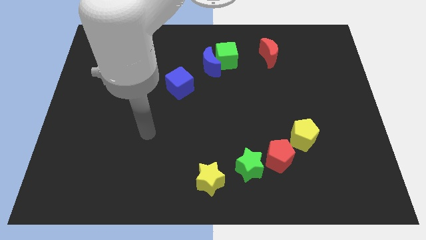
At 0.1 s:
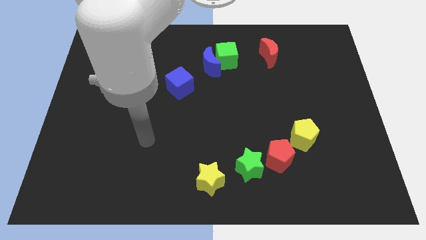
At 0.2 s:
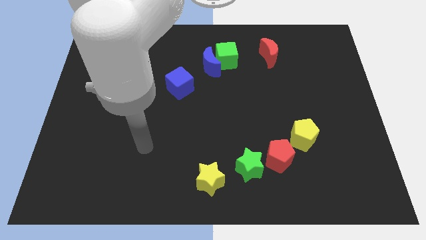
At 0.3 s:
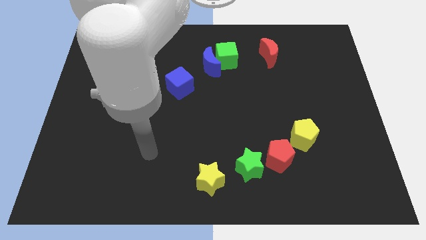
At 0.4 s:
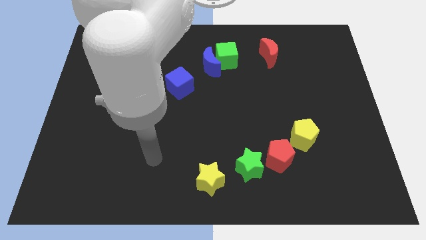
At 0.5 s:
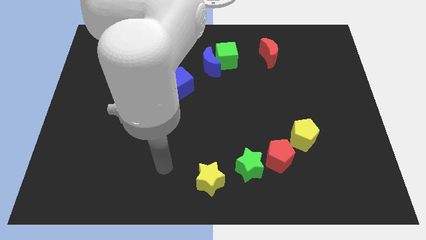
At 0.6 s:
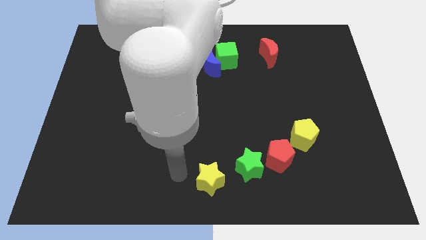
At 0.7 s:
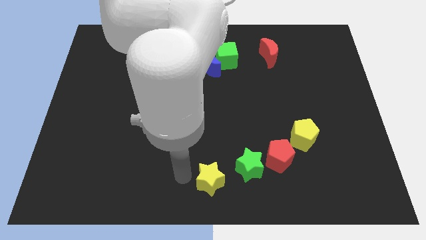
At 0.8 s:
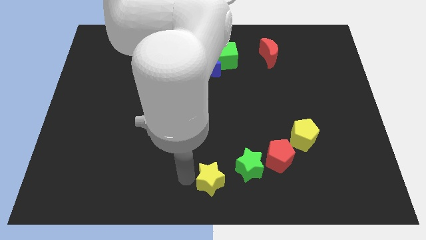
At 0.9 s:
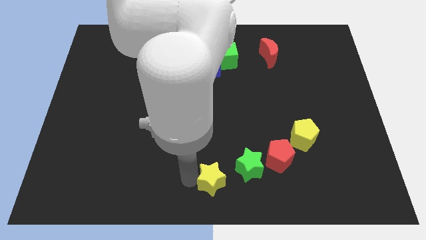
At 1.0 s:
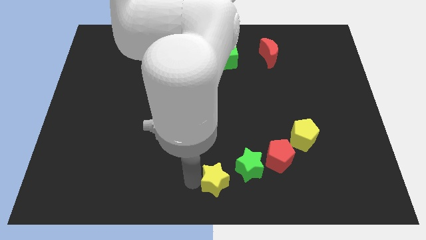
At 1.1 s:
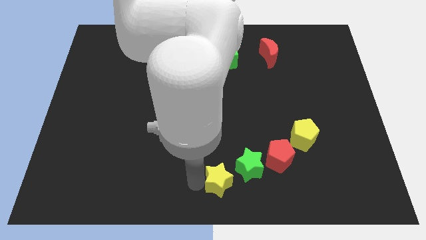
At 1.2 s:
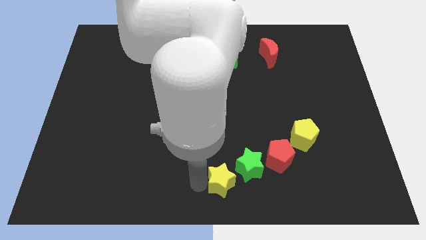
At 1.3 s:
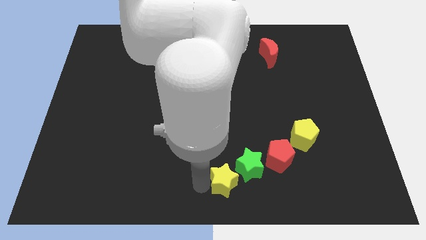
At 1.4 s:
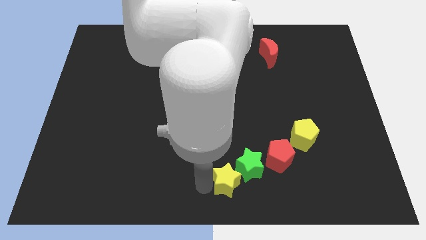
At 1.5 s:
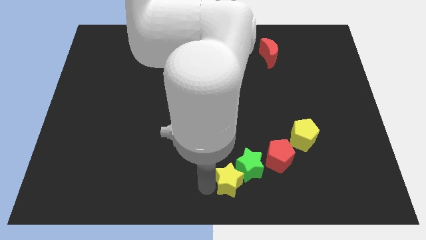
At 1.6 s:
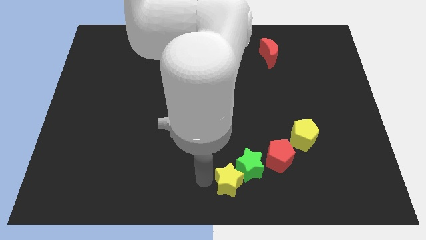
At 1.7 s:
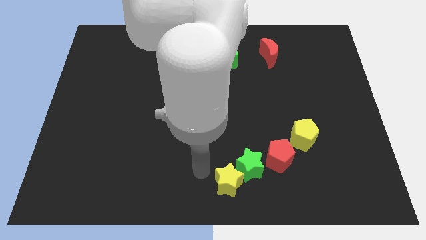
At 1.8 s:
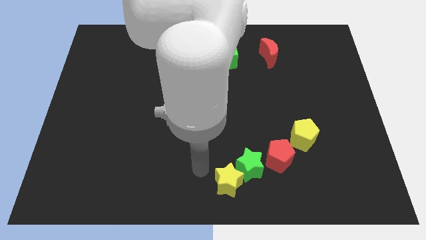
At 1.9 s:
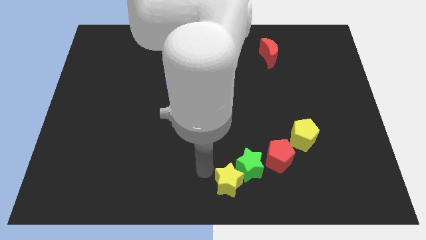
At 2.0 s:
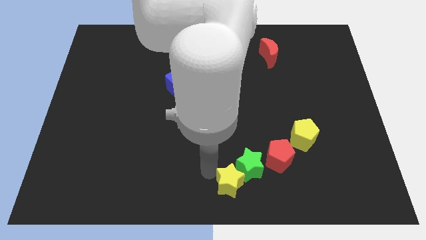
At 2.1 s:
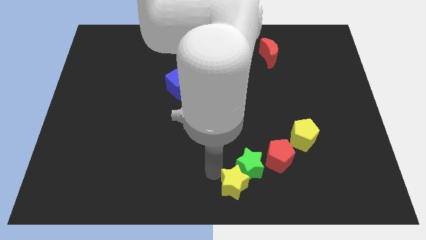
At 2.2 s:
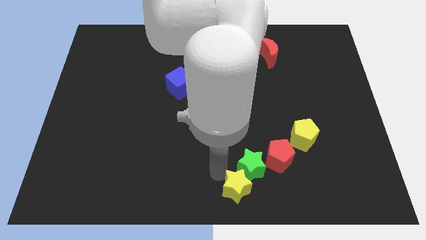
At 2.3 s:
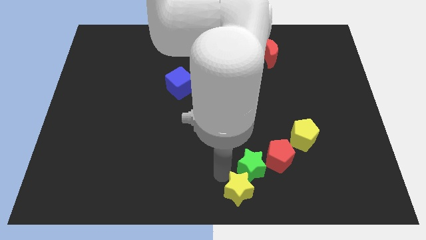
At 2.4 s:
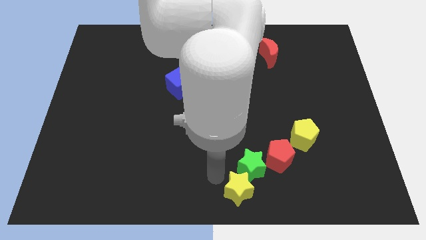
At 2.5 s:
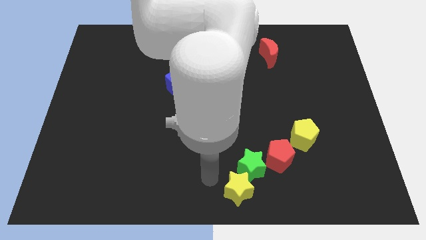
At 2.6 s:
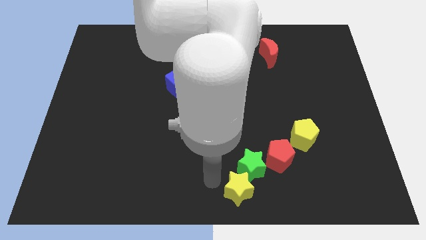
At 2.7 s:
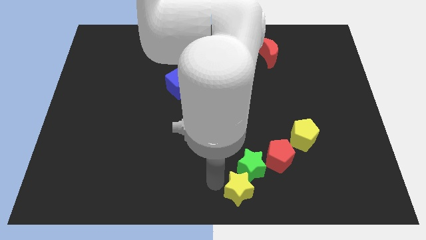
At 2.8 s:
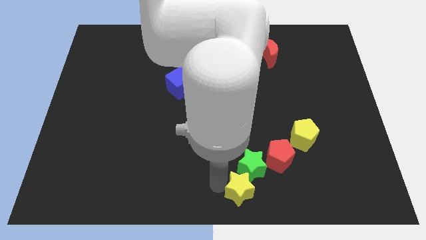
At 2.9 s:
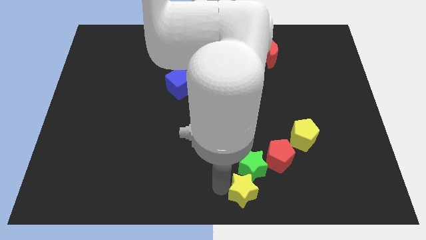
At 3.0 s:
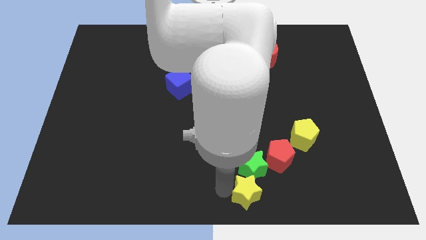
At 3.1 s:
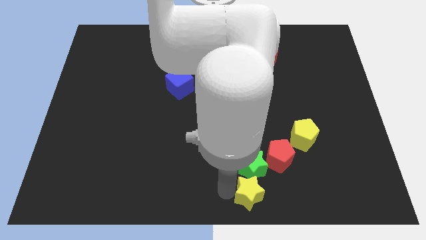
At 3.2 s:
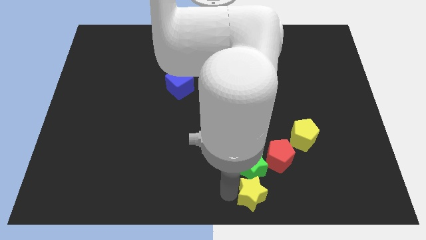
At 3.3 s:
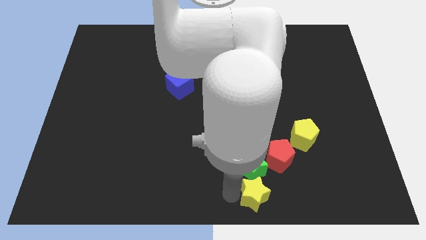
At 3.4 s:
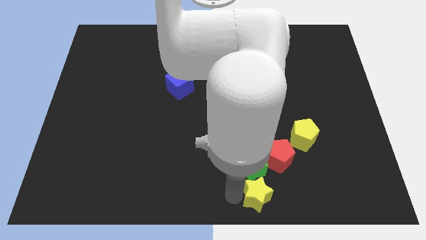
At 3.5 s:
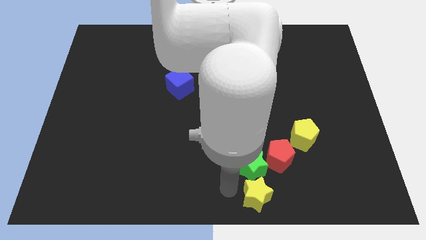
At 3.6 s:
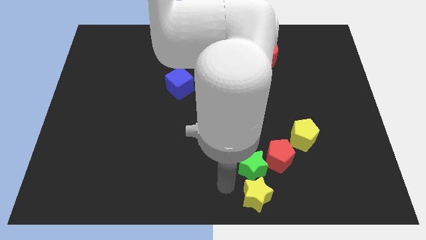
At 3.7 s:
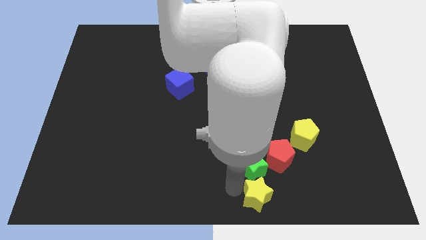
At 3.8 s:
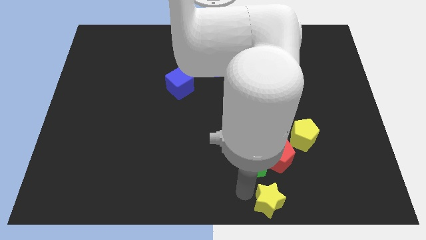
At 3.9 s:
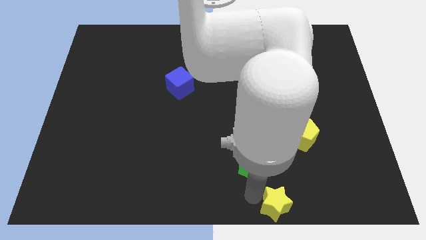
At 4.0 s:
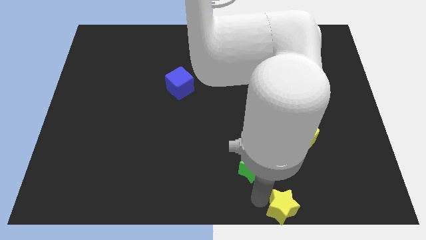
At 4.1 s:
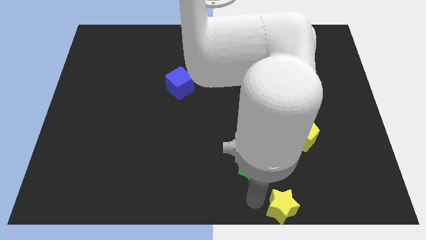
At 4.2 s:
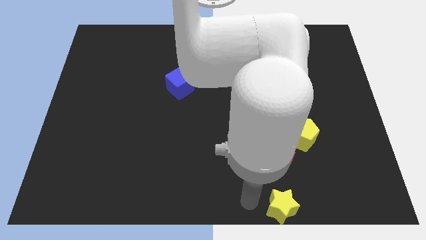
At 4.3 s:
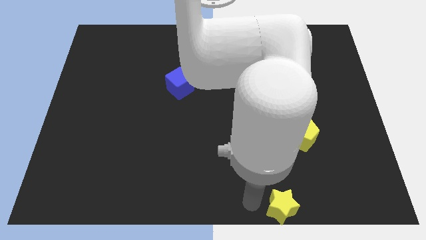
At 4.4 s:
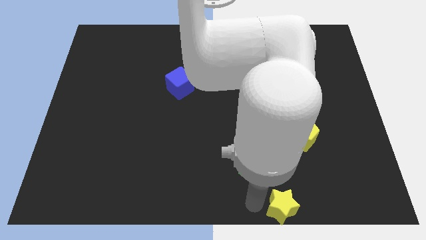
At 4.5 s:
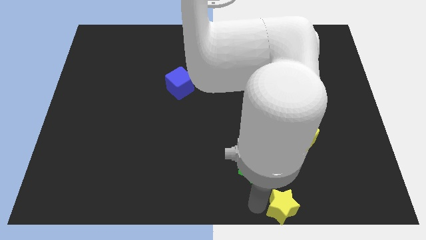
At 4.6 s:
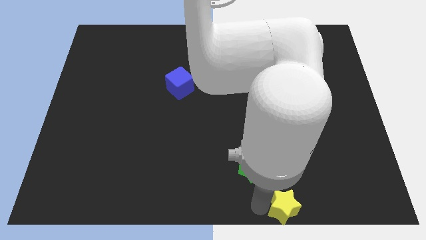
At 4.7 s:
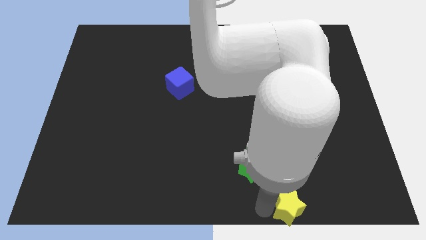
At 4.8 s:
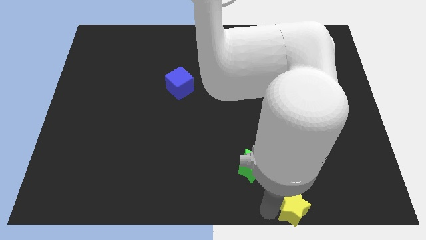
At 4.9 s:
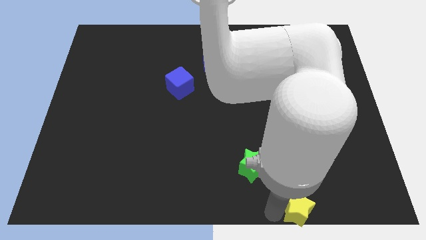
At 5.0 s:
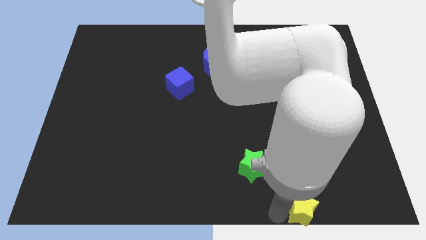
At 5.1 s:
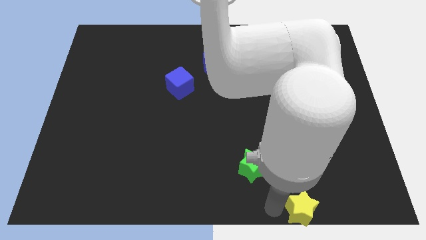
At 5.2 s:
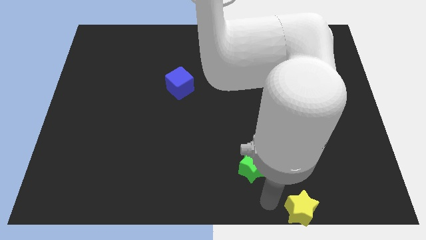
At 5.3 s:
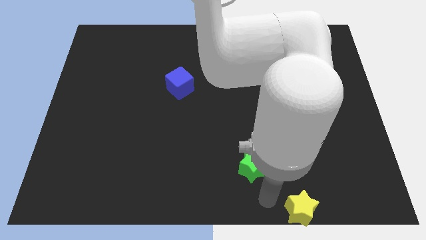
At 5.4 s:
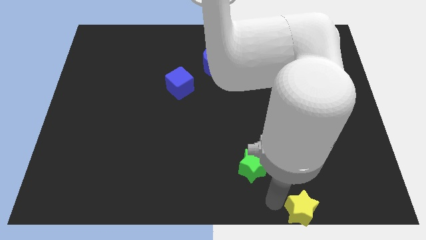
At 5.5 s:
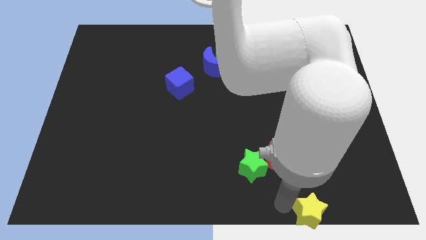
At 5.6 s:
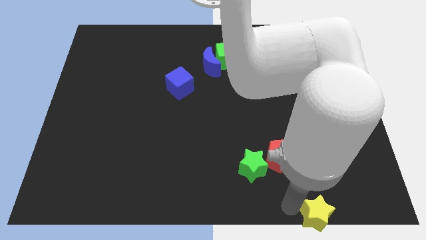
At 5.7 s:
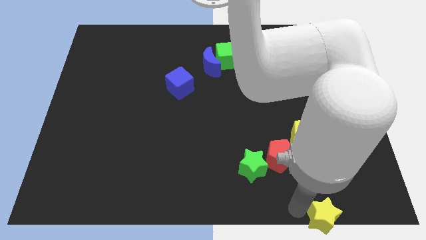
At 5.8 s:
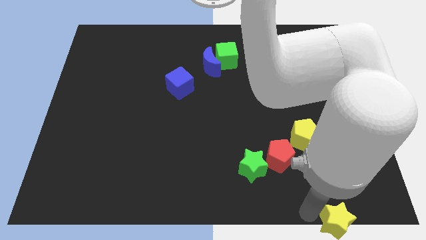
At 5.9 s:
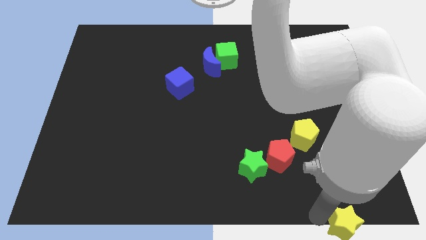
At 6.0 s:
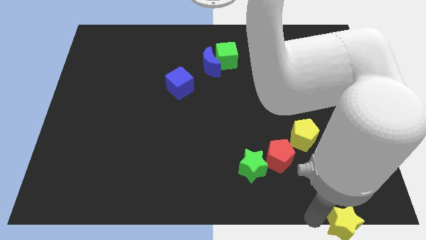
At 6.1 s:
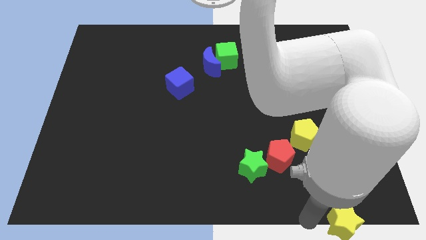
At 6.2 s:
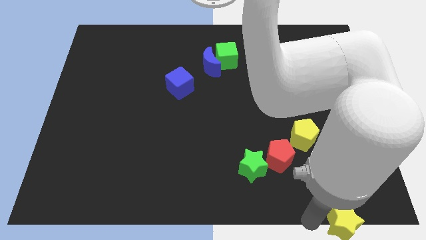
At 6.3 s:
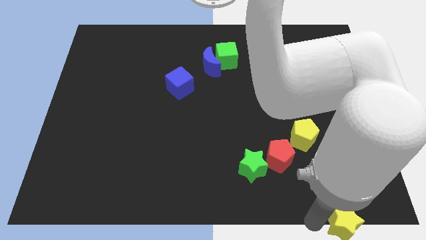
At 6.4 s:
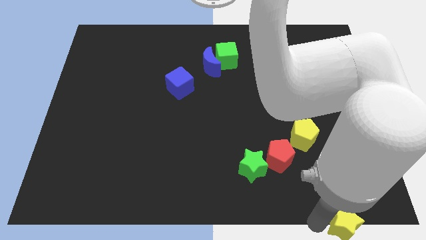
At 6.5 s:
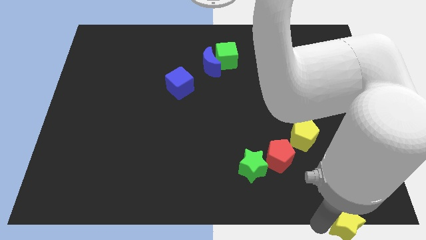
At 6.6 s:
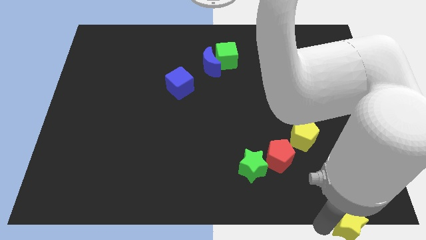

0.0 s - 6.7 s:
push the yellow star to the bottom right
